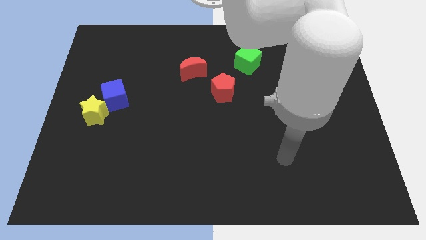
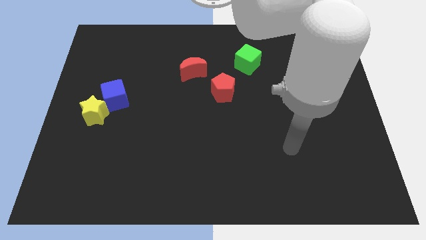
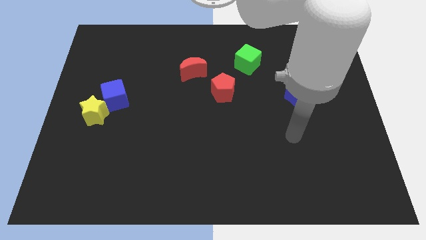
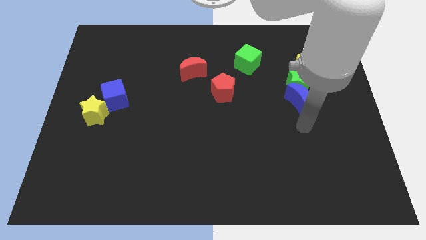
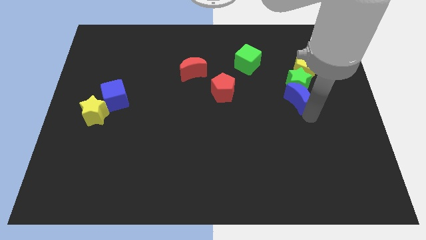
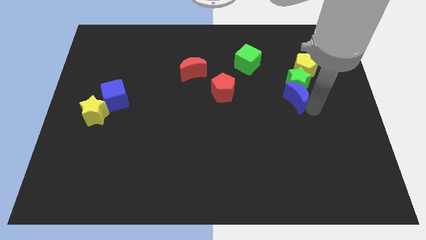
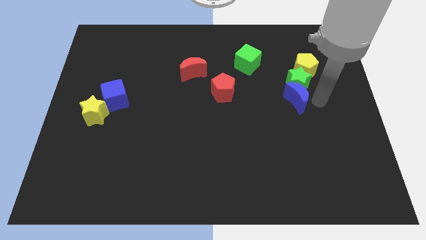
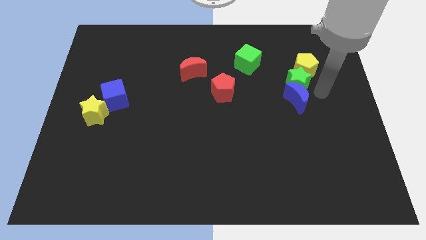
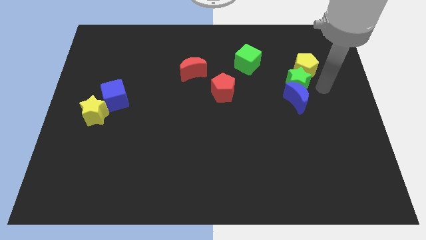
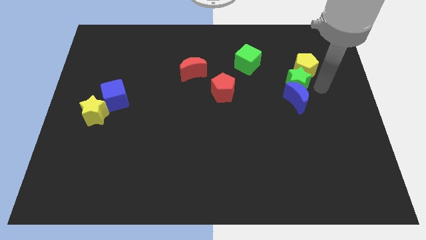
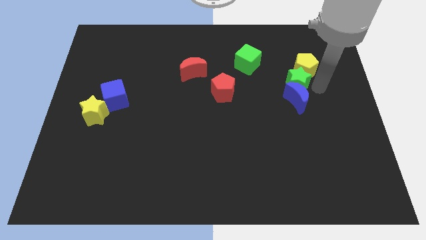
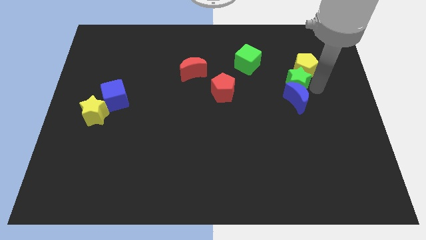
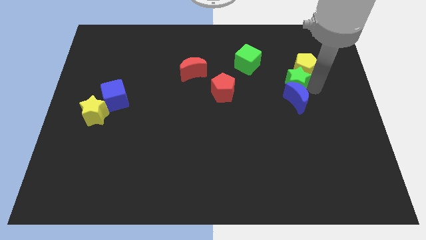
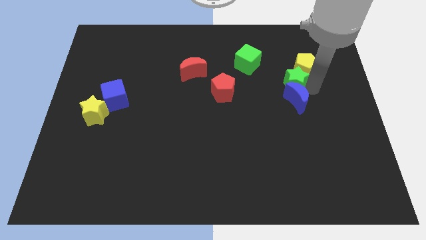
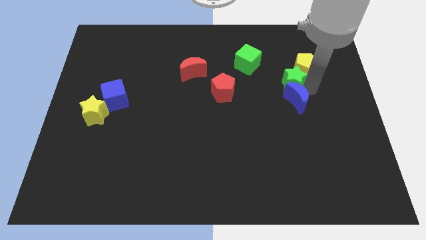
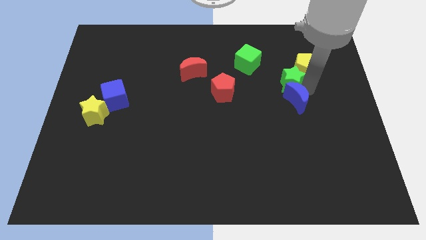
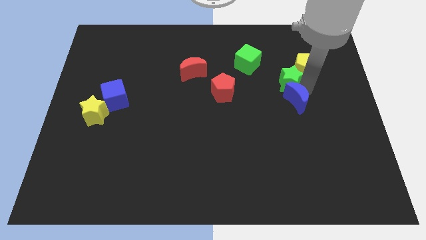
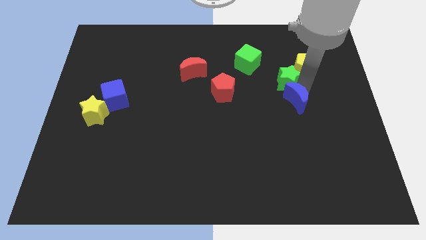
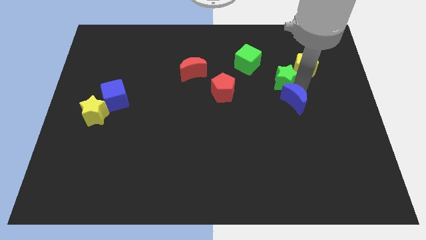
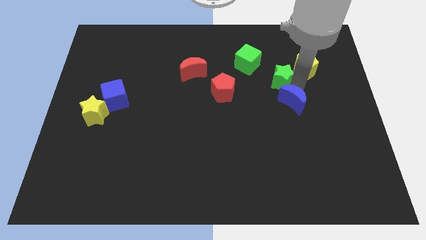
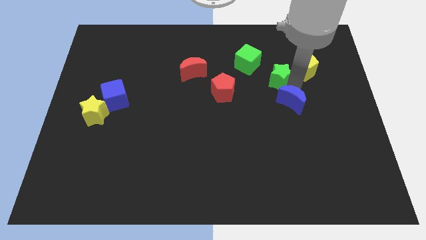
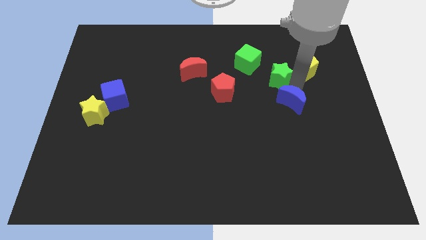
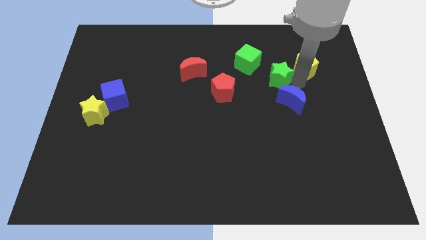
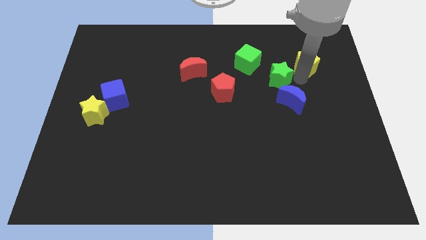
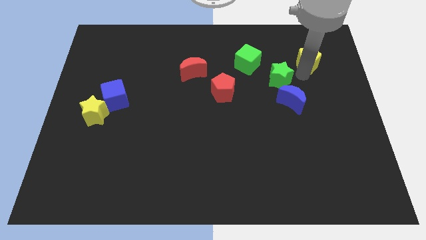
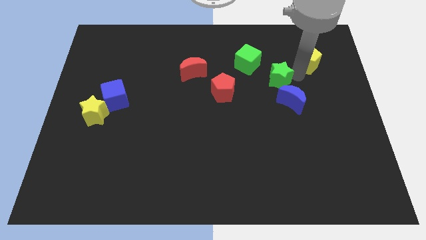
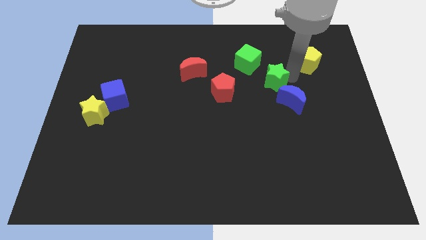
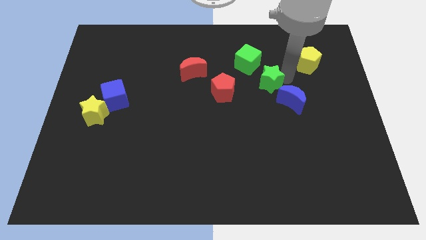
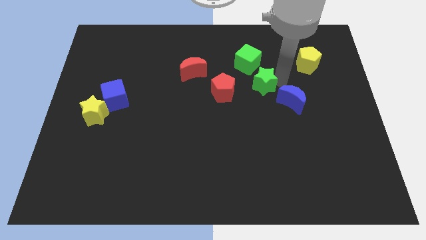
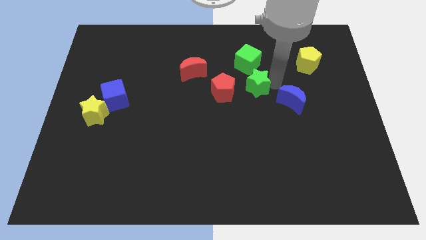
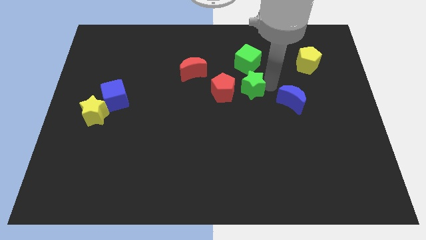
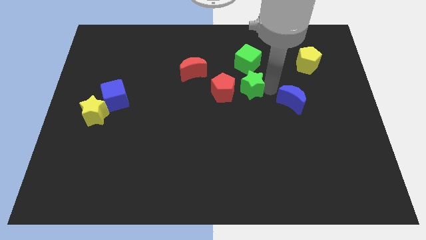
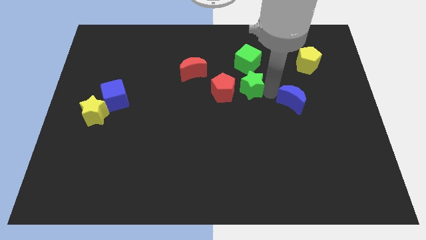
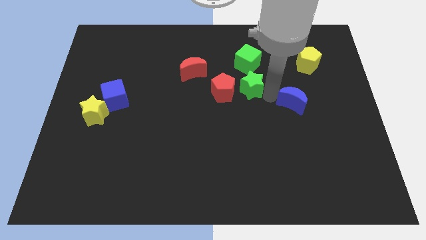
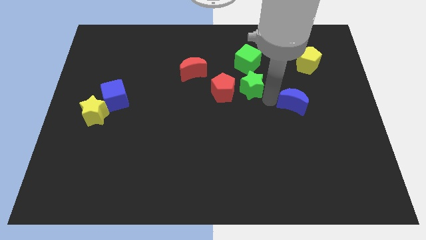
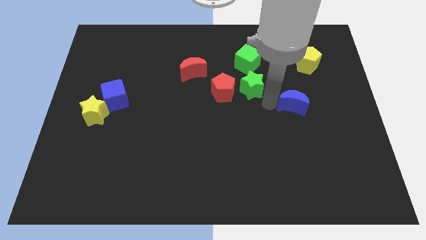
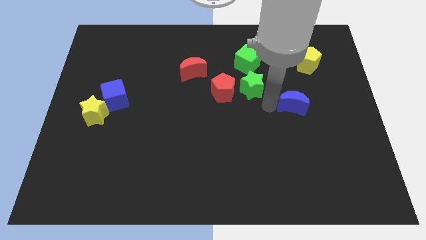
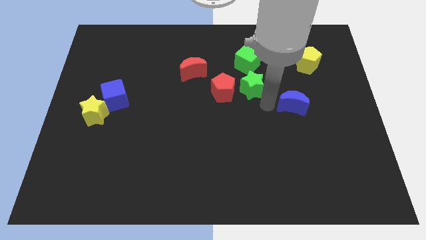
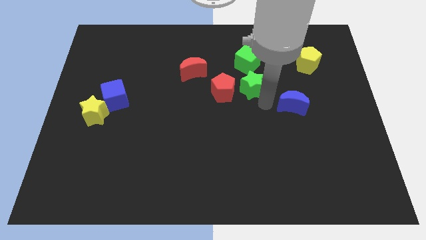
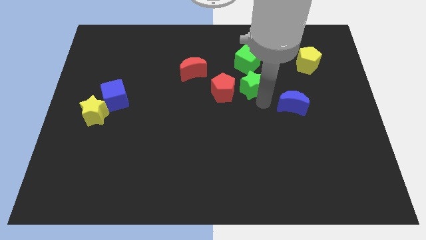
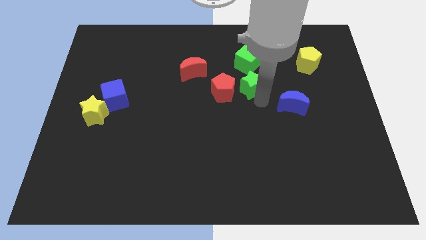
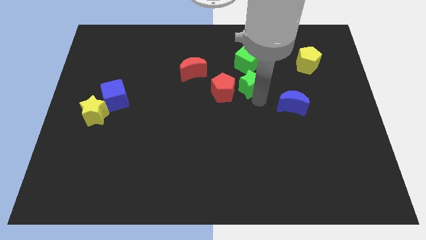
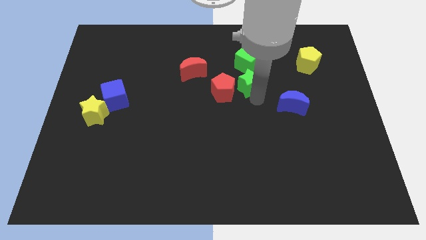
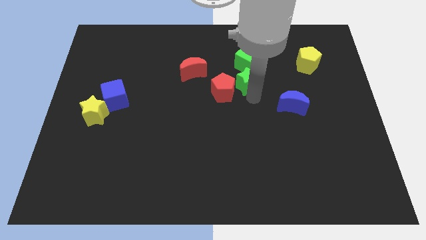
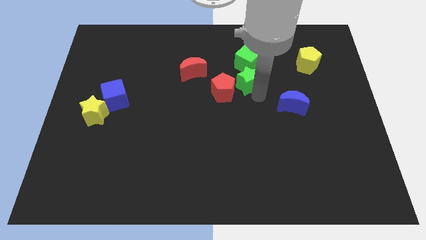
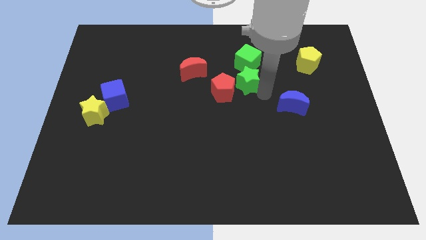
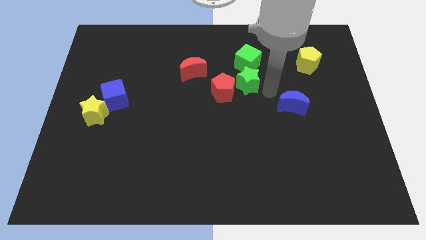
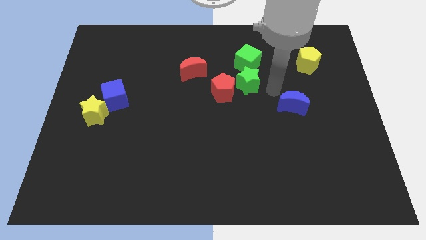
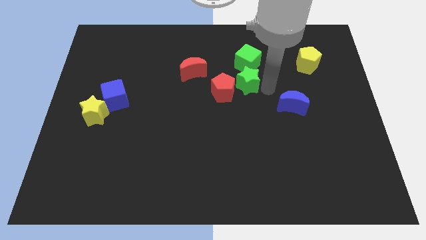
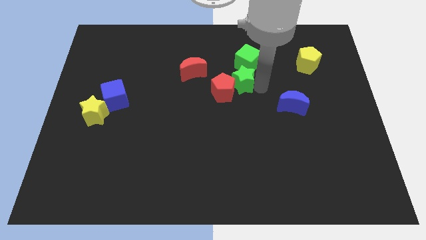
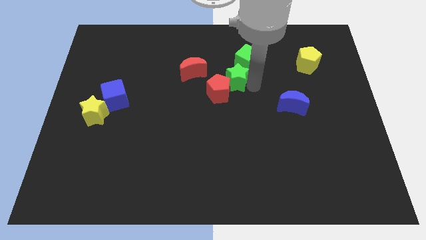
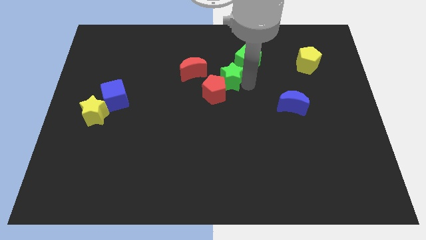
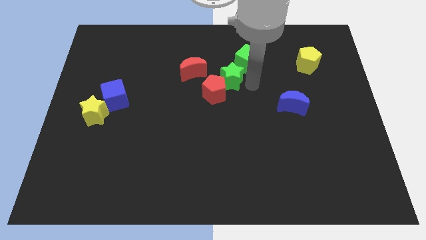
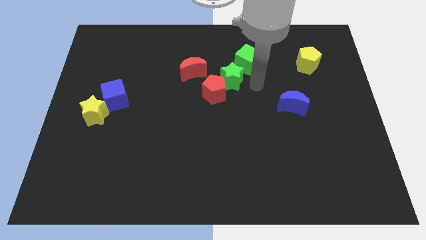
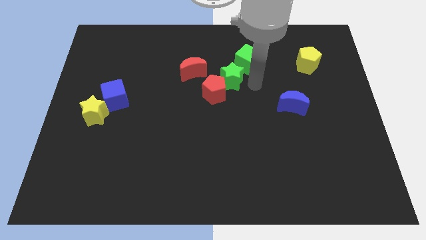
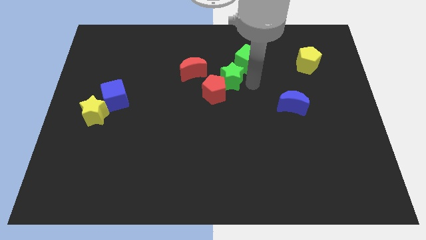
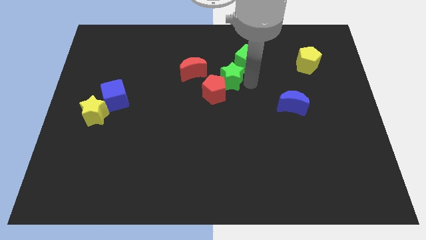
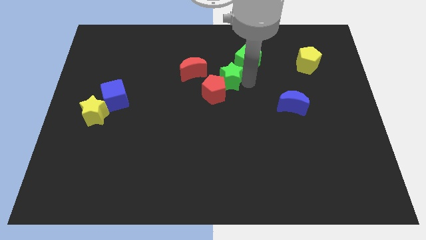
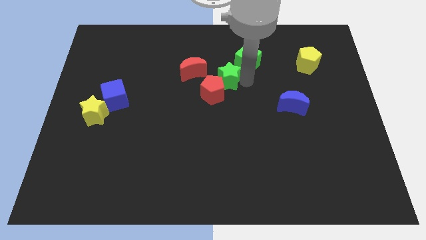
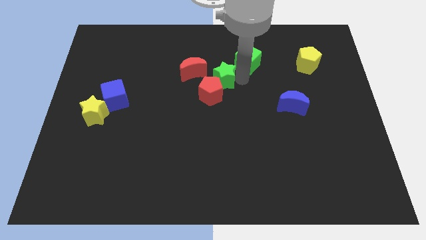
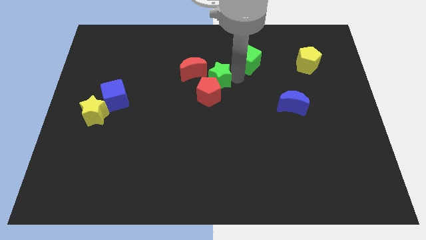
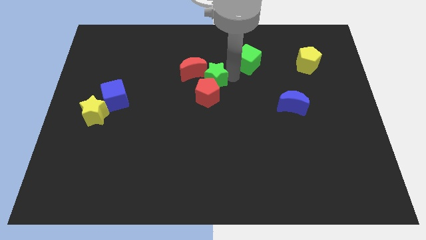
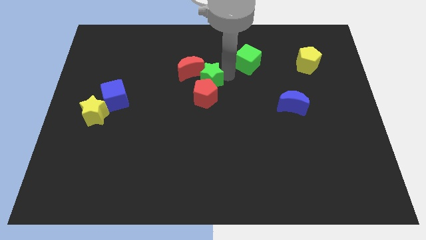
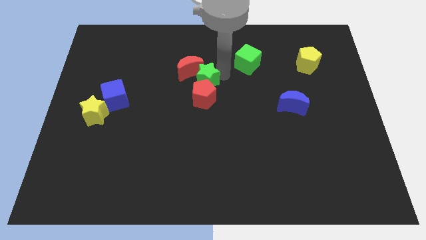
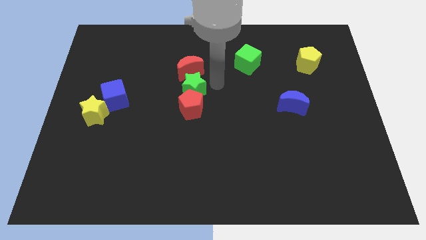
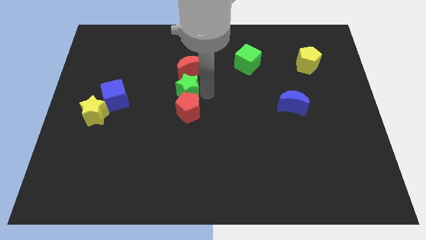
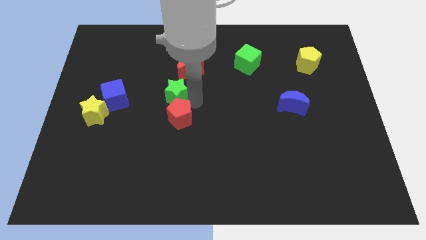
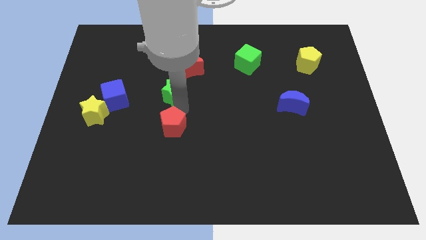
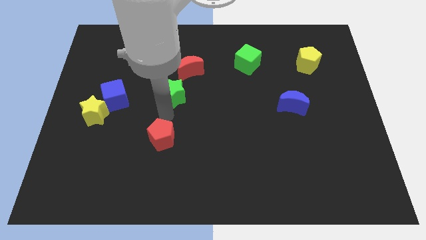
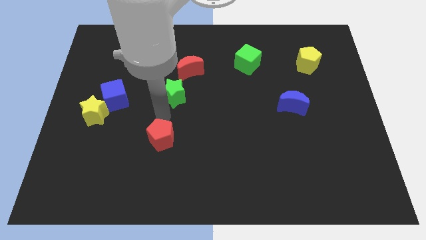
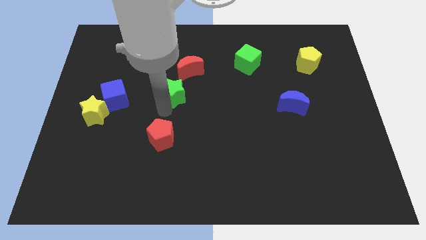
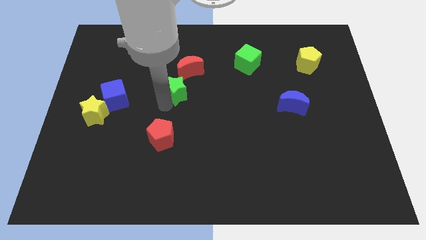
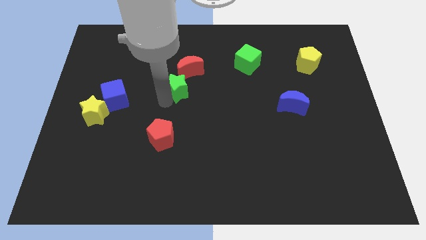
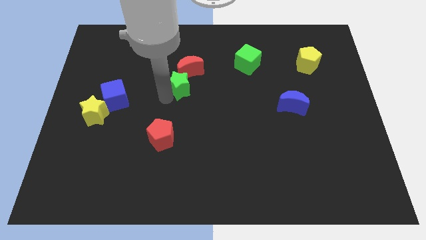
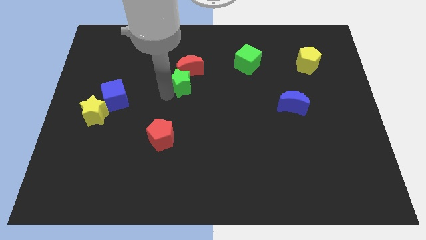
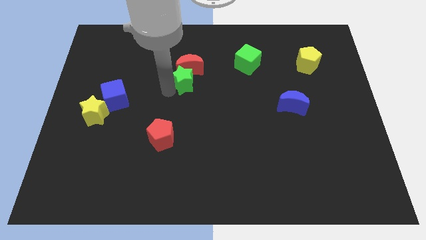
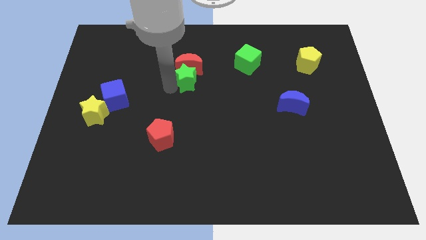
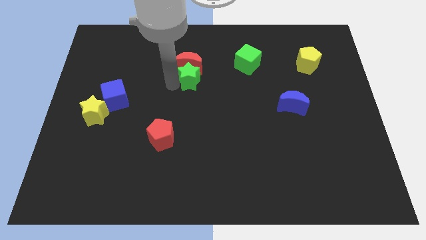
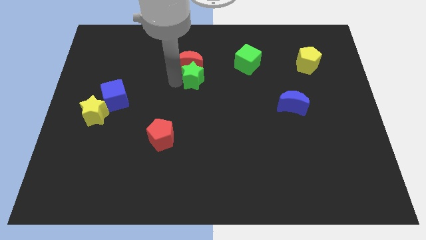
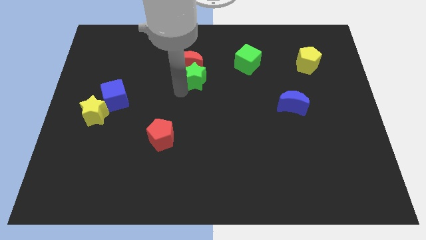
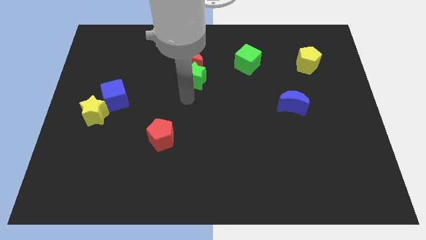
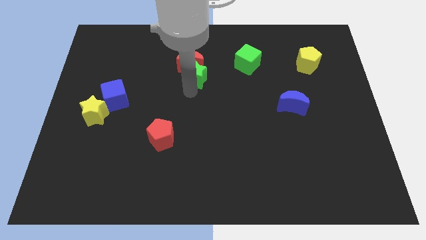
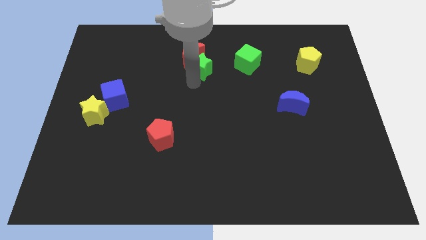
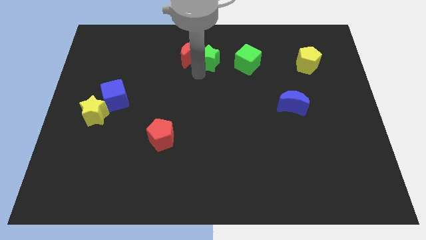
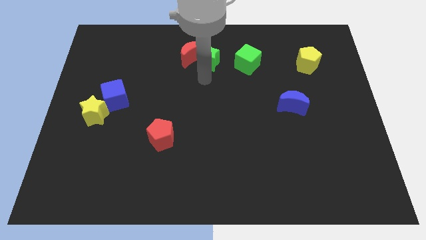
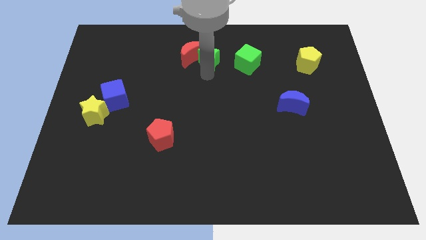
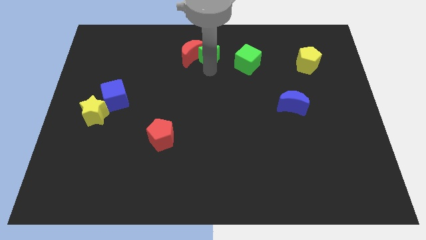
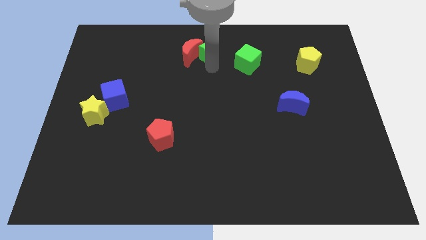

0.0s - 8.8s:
move the green star to the towards your base
